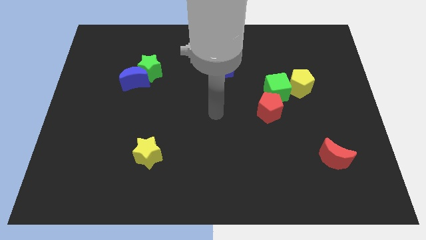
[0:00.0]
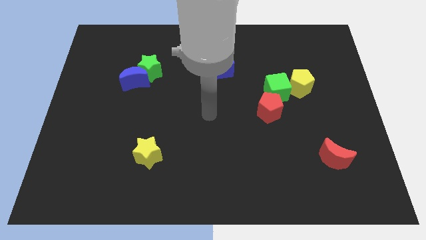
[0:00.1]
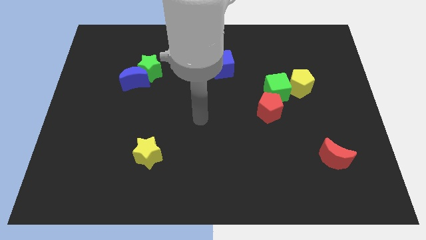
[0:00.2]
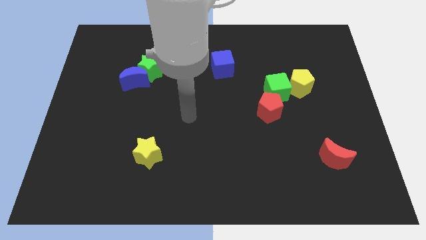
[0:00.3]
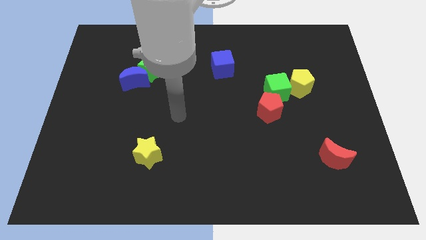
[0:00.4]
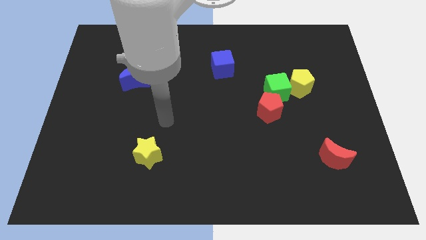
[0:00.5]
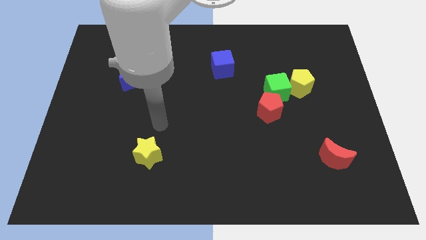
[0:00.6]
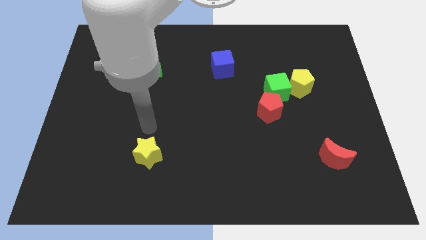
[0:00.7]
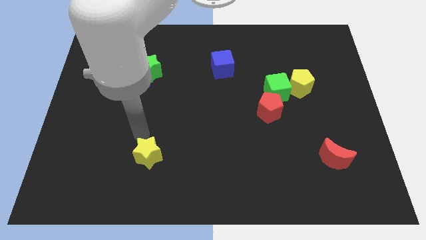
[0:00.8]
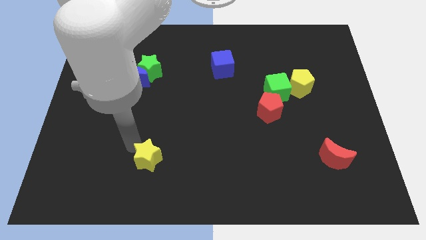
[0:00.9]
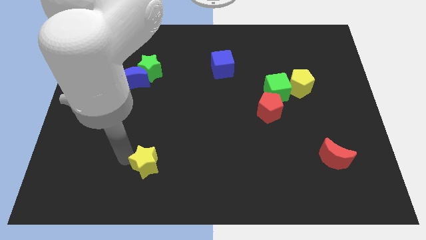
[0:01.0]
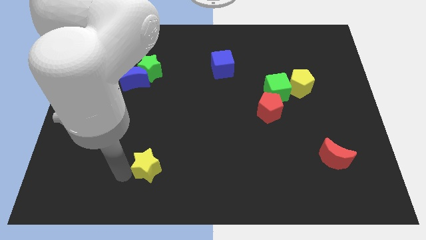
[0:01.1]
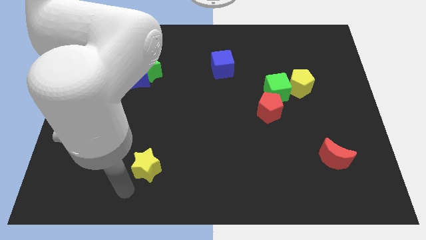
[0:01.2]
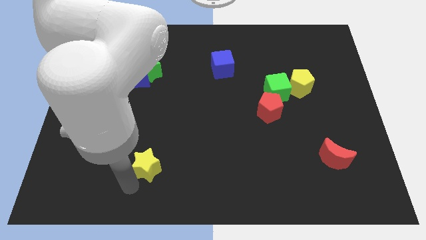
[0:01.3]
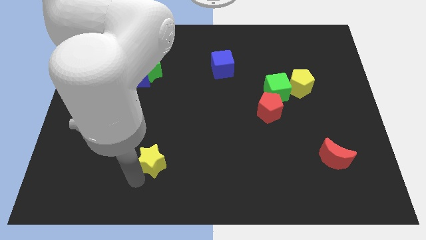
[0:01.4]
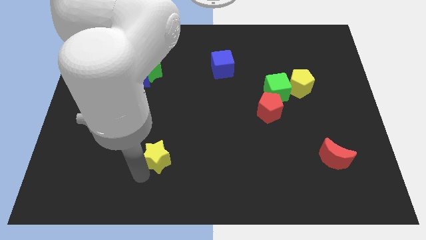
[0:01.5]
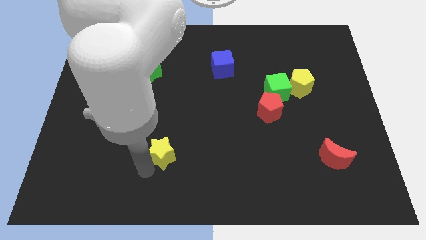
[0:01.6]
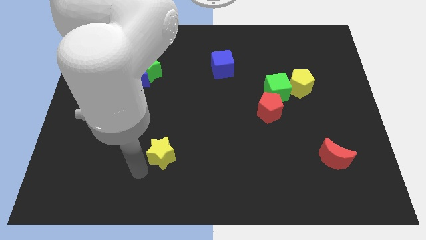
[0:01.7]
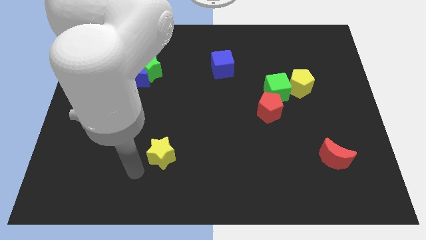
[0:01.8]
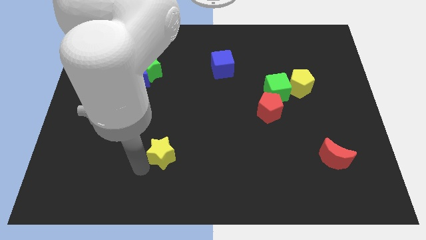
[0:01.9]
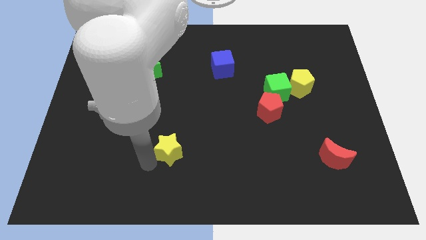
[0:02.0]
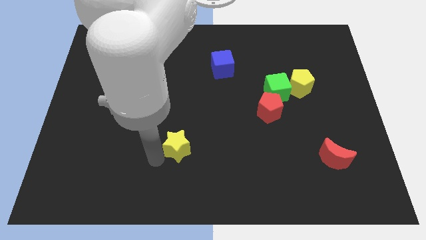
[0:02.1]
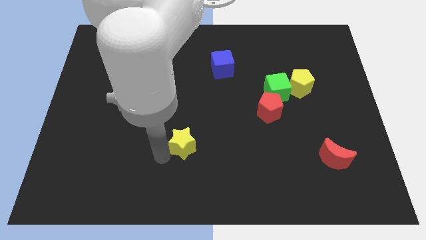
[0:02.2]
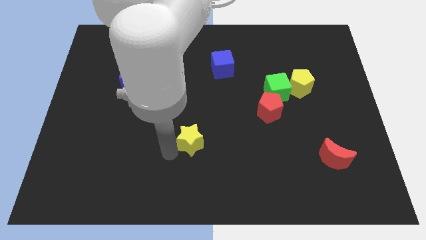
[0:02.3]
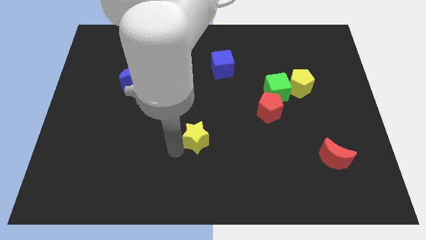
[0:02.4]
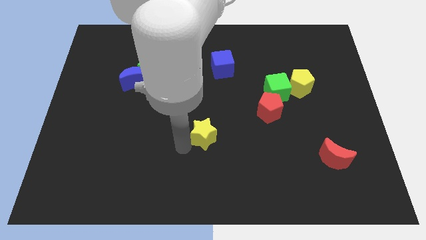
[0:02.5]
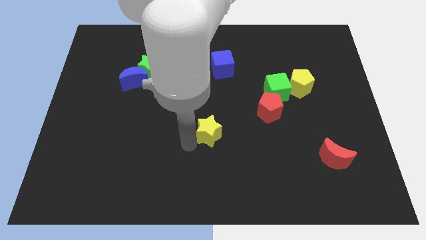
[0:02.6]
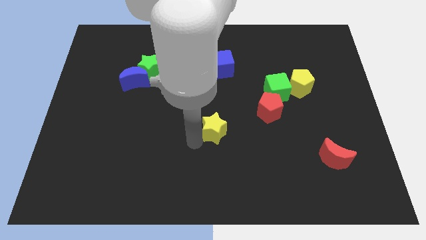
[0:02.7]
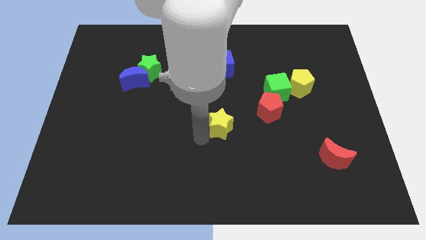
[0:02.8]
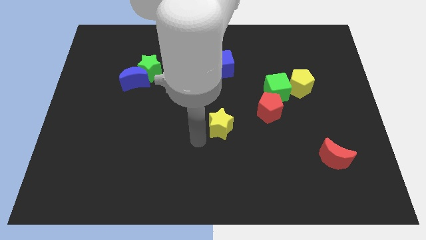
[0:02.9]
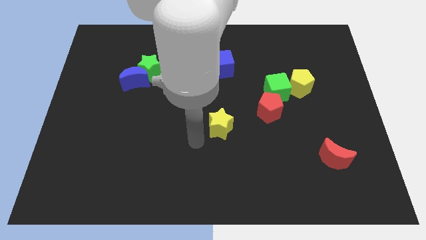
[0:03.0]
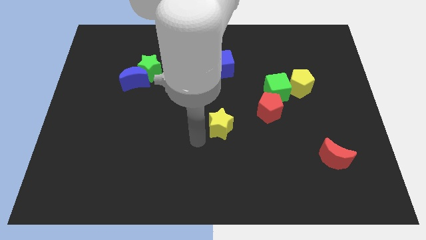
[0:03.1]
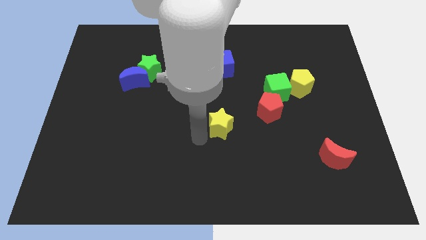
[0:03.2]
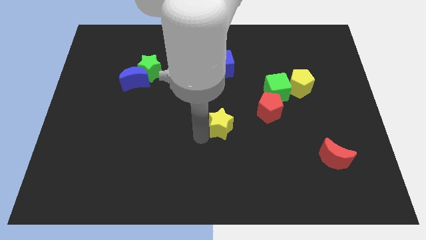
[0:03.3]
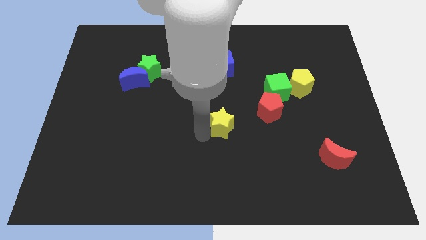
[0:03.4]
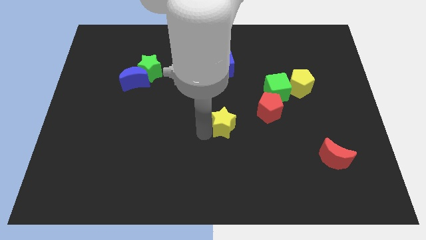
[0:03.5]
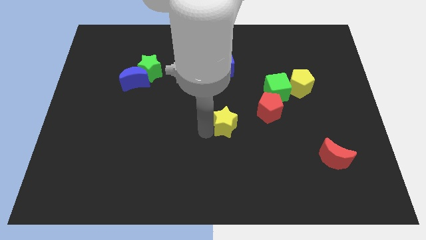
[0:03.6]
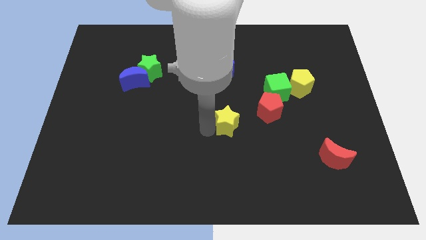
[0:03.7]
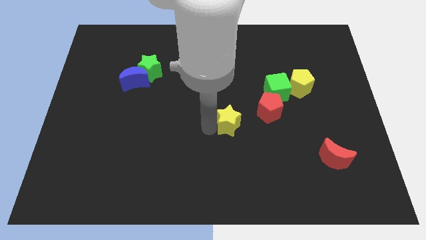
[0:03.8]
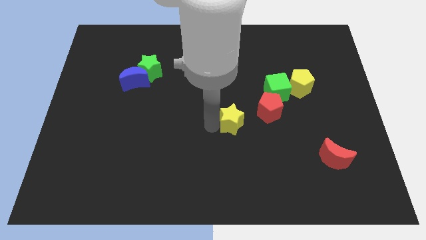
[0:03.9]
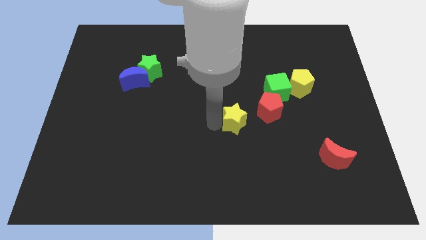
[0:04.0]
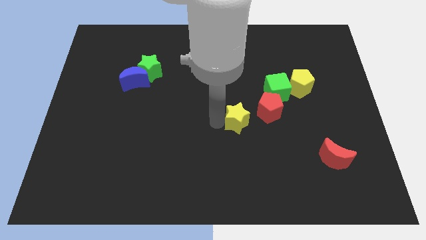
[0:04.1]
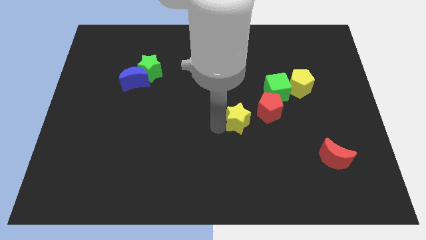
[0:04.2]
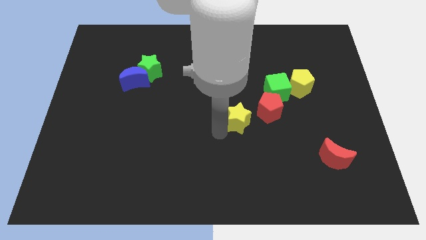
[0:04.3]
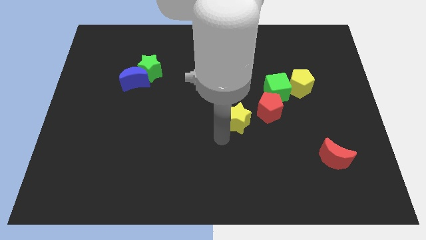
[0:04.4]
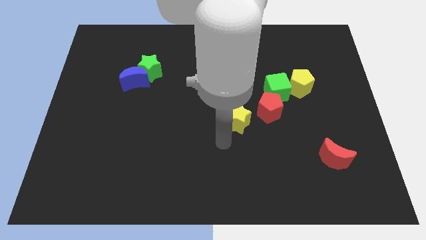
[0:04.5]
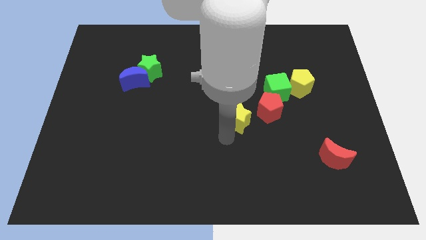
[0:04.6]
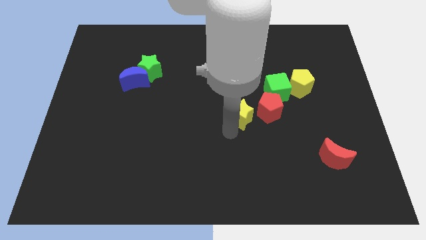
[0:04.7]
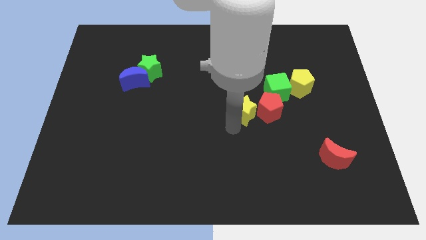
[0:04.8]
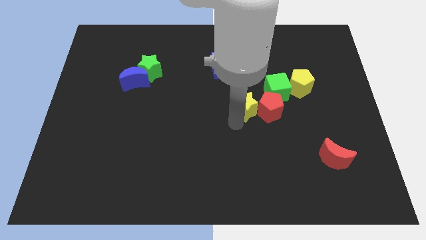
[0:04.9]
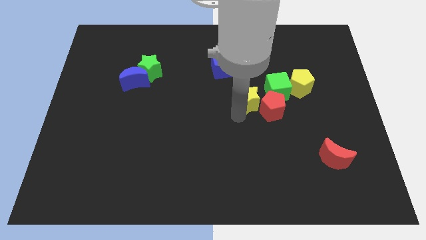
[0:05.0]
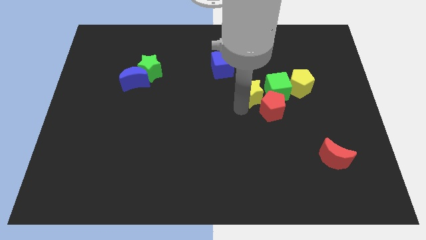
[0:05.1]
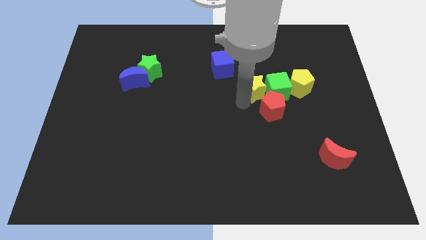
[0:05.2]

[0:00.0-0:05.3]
move the yellow star next to the green cube
